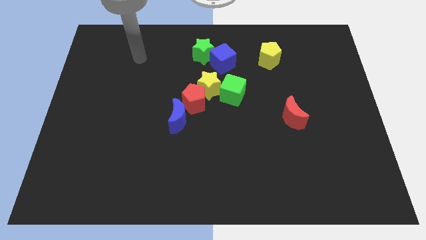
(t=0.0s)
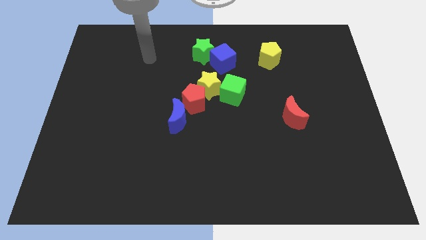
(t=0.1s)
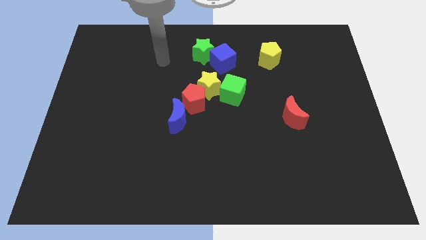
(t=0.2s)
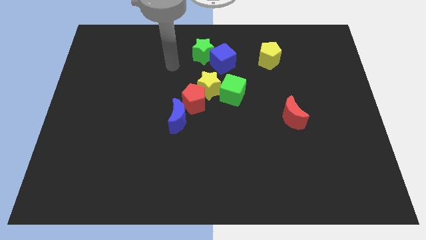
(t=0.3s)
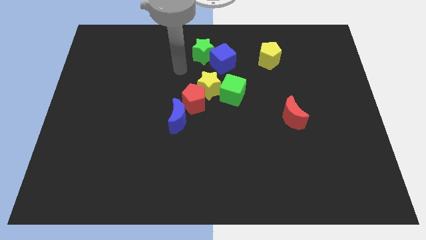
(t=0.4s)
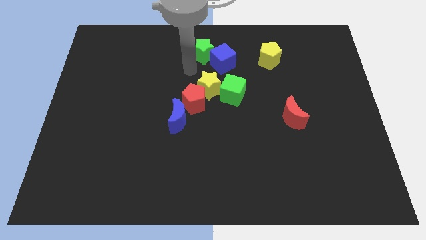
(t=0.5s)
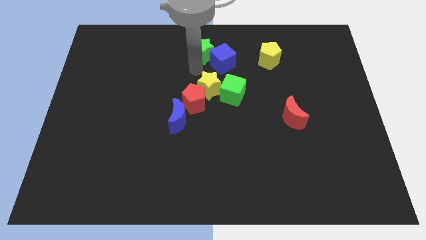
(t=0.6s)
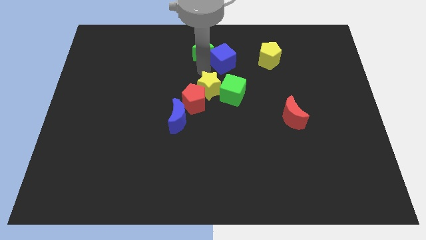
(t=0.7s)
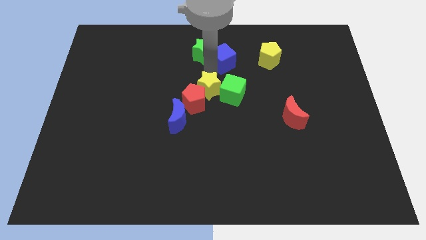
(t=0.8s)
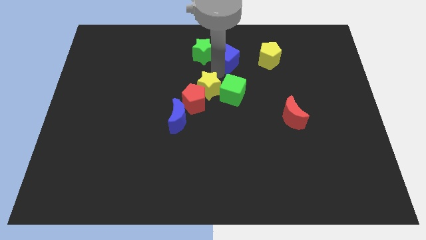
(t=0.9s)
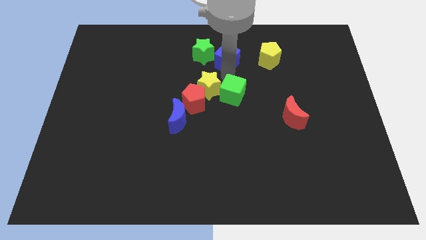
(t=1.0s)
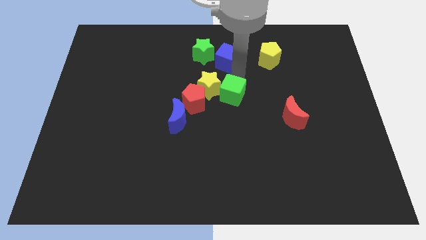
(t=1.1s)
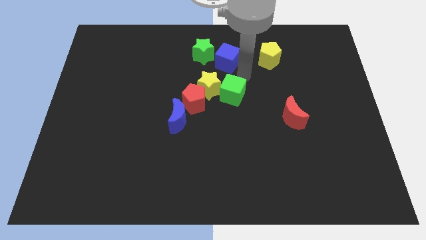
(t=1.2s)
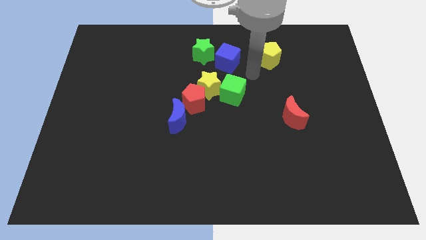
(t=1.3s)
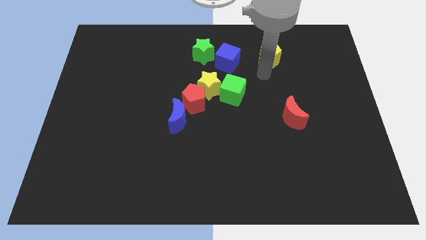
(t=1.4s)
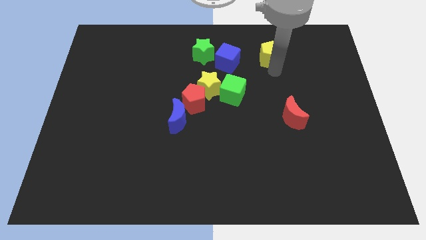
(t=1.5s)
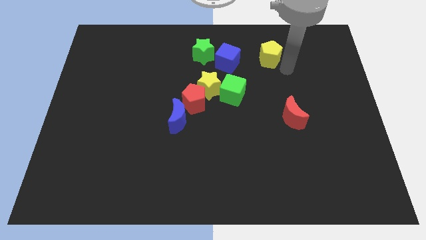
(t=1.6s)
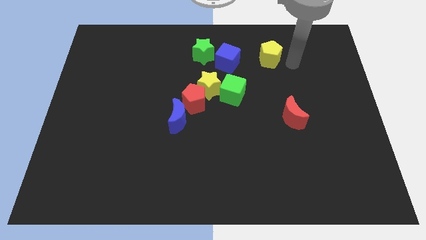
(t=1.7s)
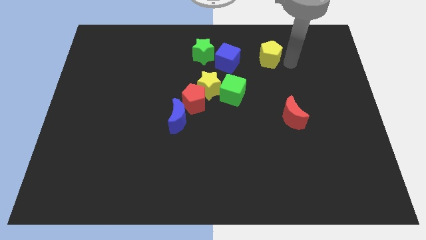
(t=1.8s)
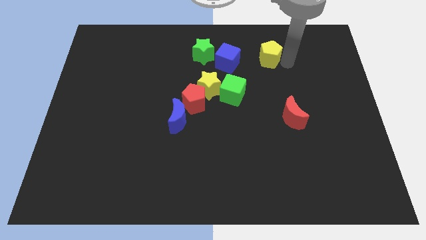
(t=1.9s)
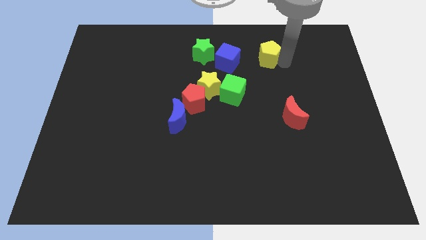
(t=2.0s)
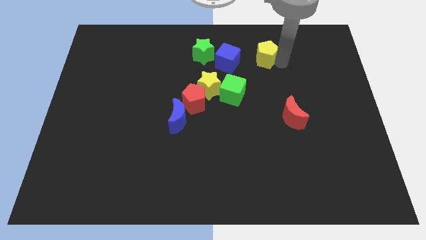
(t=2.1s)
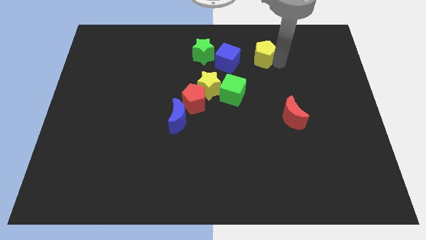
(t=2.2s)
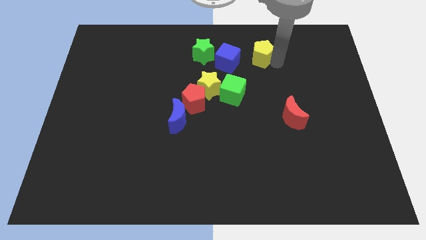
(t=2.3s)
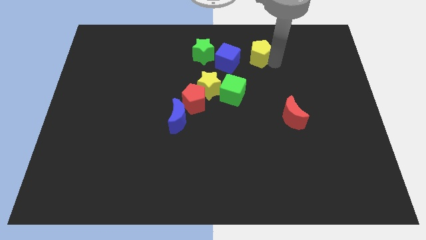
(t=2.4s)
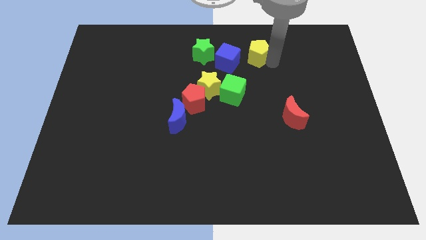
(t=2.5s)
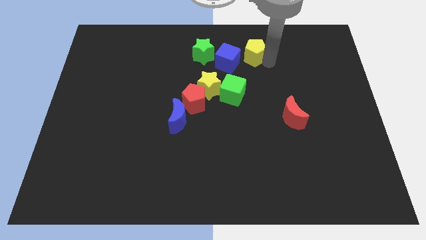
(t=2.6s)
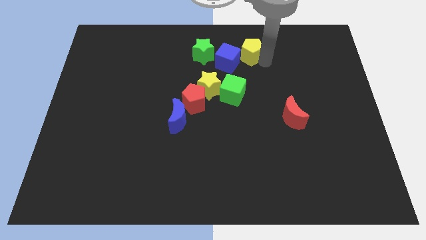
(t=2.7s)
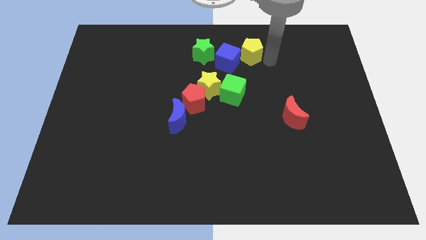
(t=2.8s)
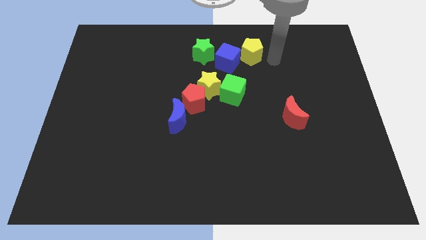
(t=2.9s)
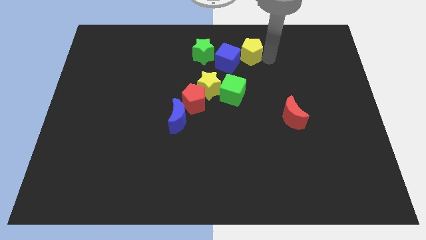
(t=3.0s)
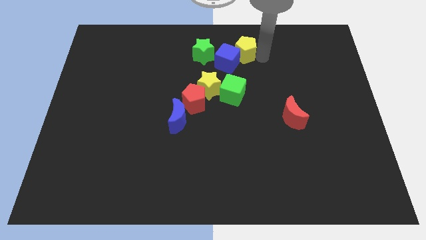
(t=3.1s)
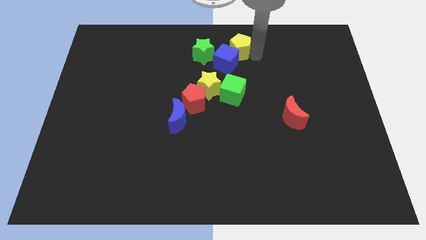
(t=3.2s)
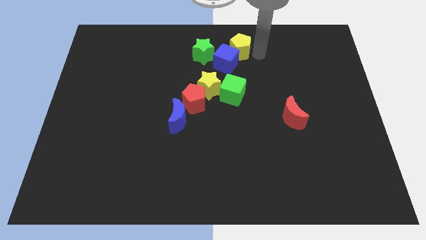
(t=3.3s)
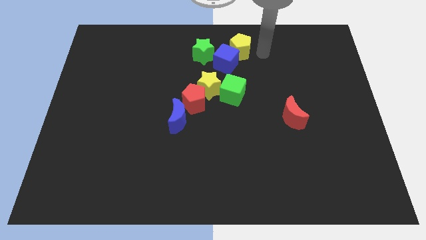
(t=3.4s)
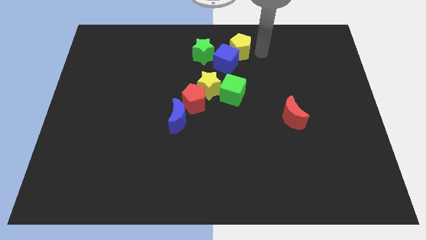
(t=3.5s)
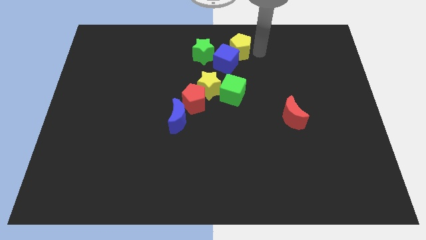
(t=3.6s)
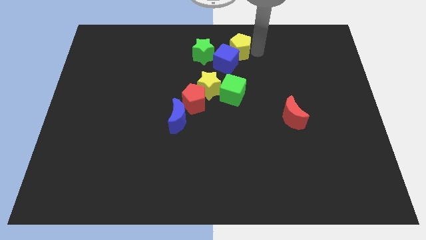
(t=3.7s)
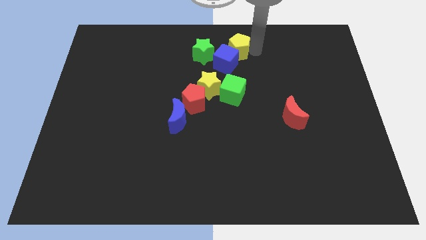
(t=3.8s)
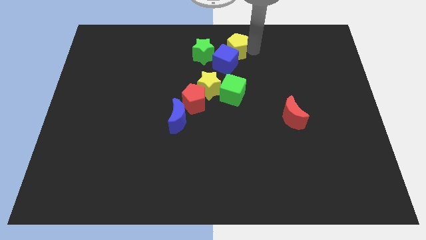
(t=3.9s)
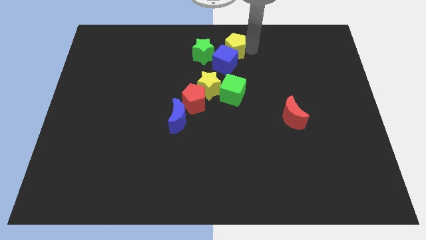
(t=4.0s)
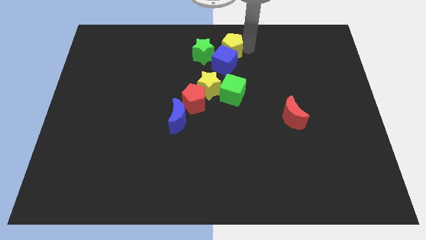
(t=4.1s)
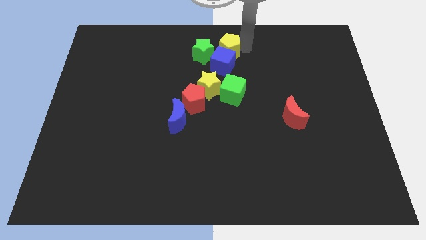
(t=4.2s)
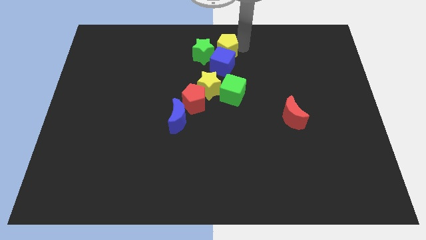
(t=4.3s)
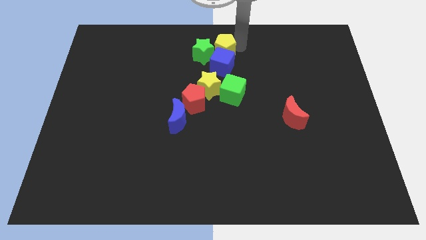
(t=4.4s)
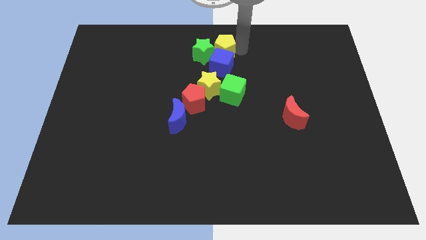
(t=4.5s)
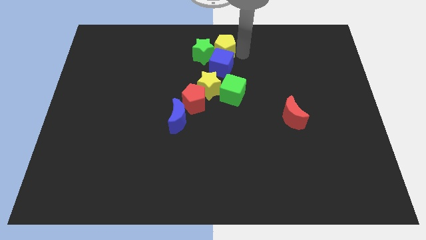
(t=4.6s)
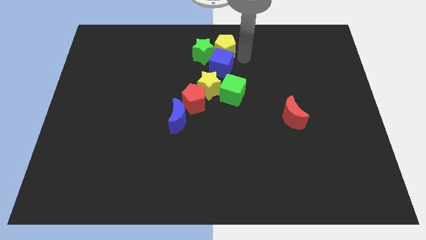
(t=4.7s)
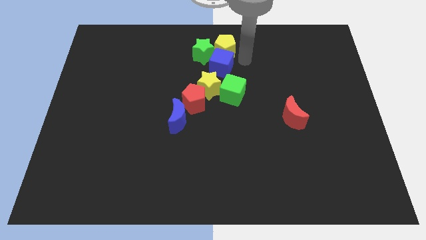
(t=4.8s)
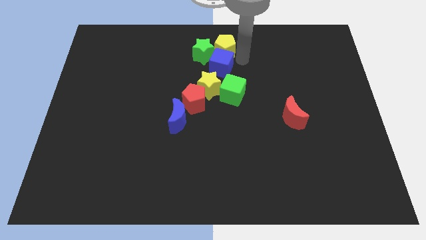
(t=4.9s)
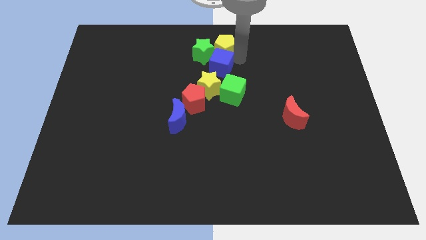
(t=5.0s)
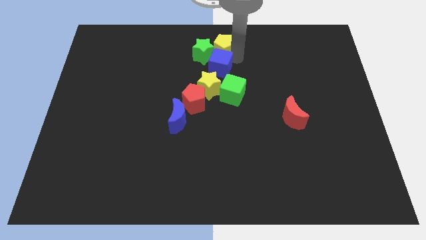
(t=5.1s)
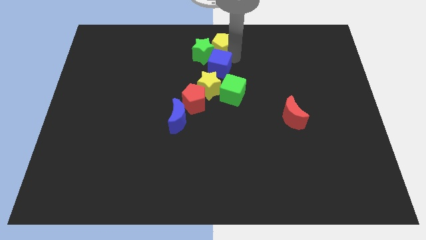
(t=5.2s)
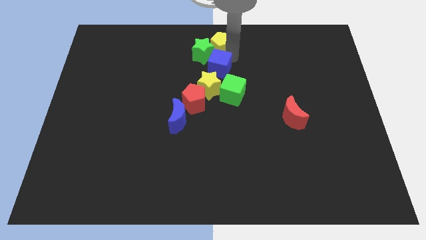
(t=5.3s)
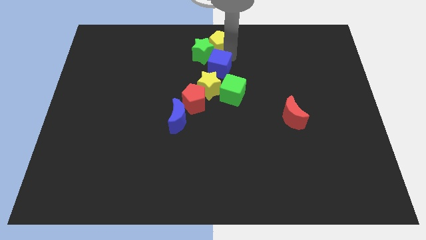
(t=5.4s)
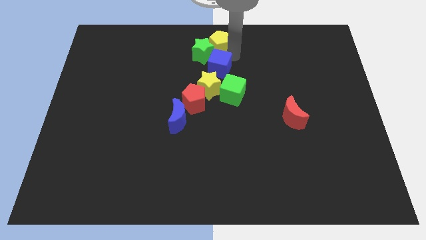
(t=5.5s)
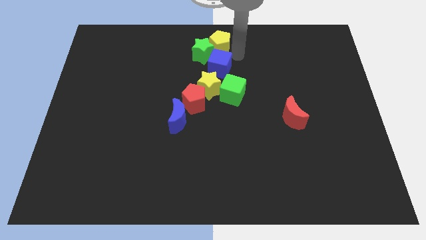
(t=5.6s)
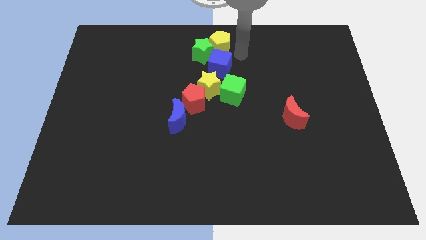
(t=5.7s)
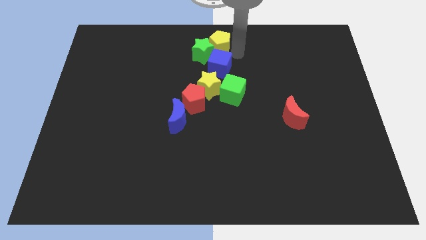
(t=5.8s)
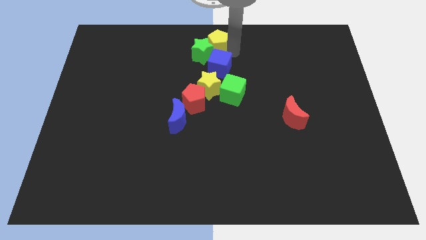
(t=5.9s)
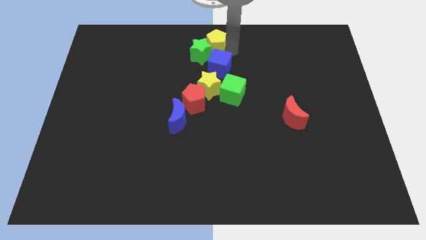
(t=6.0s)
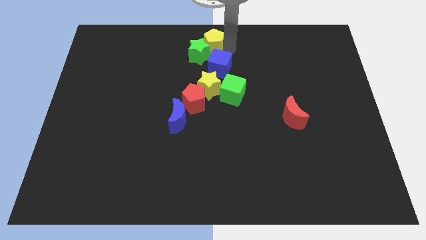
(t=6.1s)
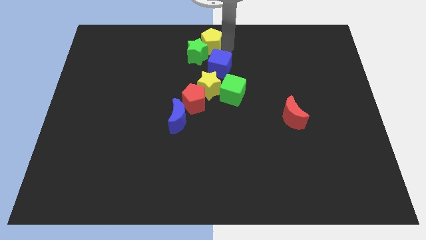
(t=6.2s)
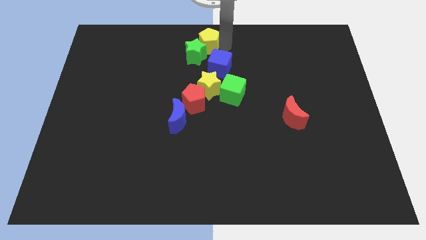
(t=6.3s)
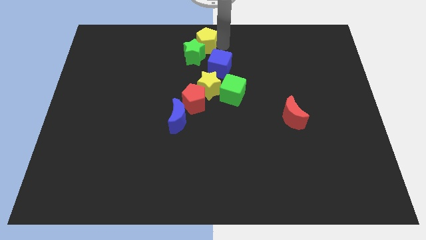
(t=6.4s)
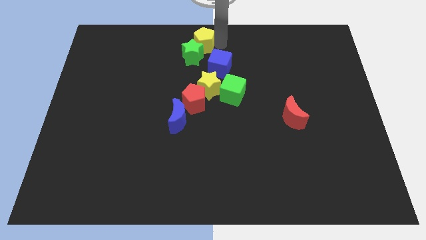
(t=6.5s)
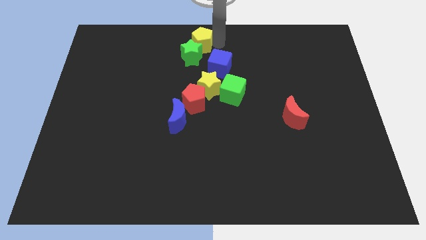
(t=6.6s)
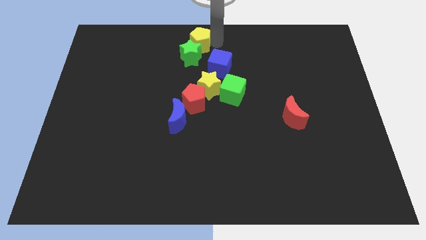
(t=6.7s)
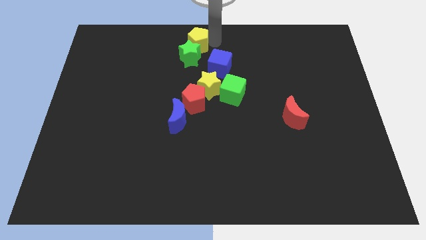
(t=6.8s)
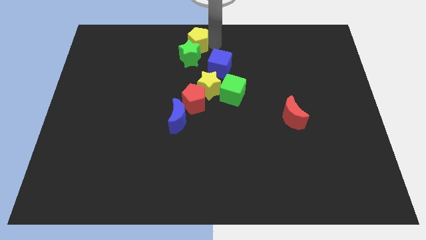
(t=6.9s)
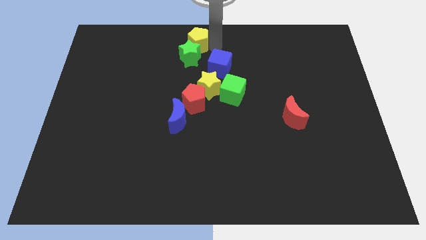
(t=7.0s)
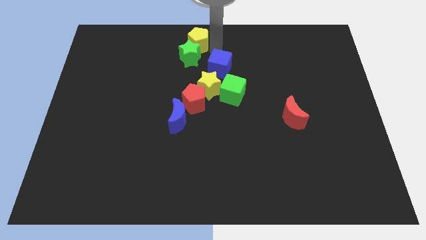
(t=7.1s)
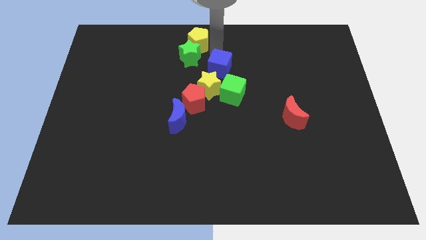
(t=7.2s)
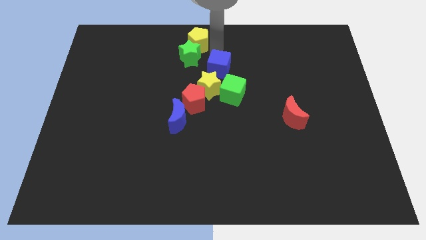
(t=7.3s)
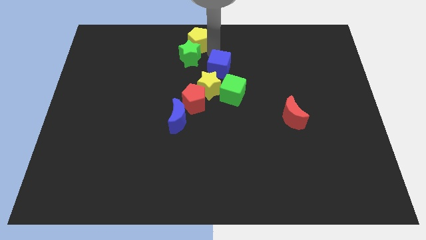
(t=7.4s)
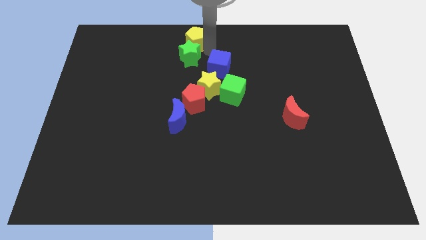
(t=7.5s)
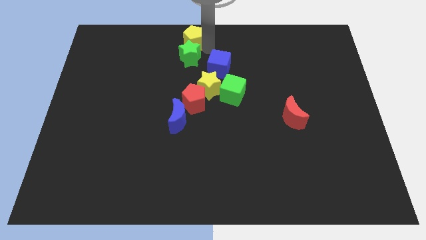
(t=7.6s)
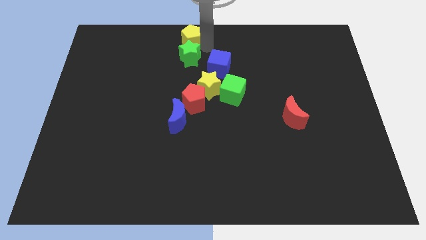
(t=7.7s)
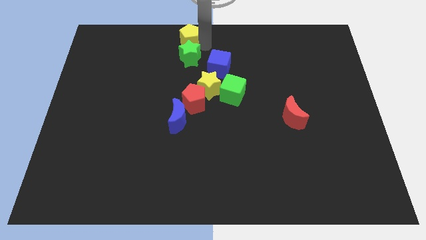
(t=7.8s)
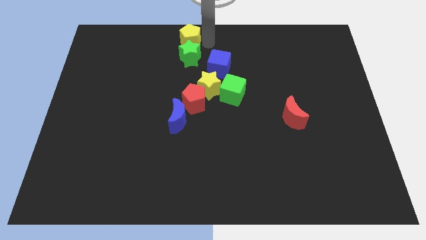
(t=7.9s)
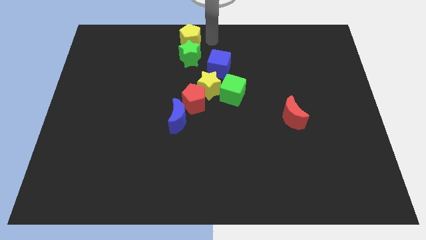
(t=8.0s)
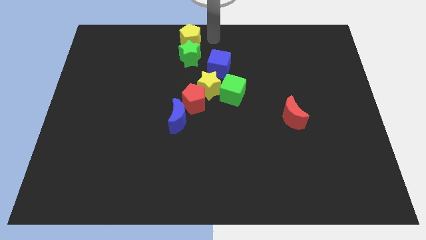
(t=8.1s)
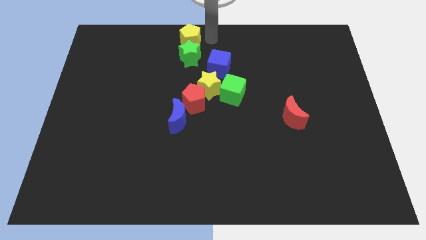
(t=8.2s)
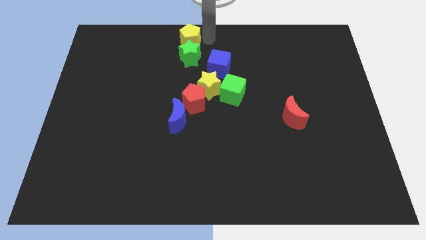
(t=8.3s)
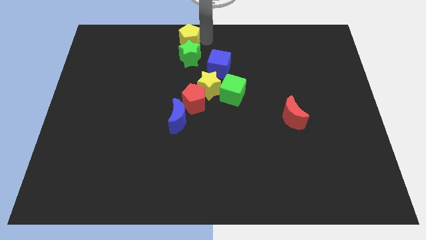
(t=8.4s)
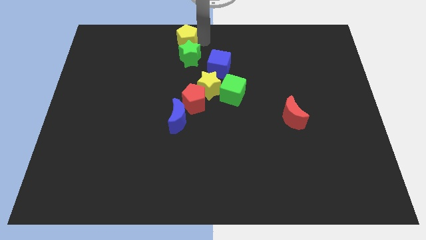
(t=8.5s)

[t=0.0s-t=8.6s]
push the yellow pentagon left
